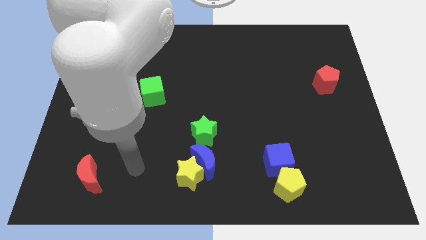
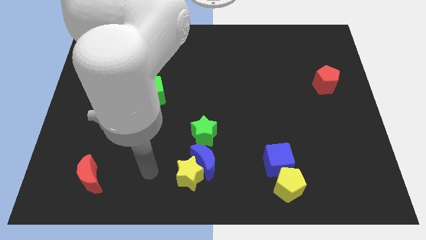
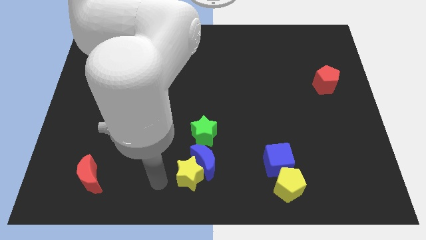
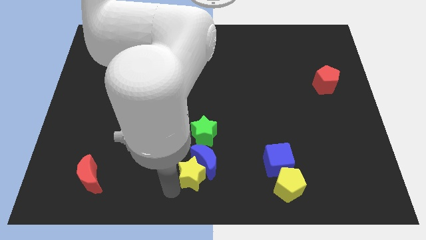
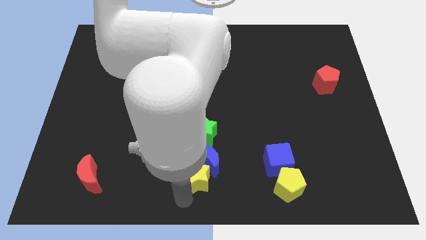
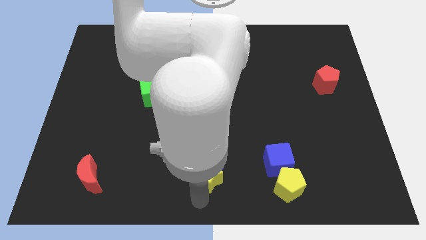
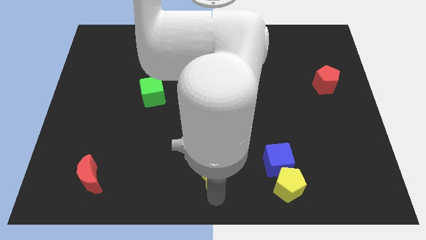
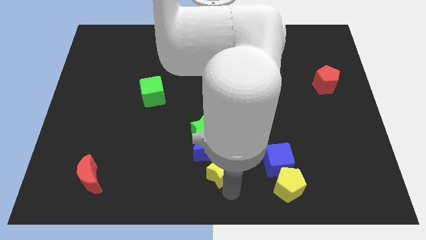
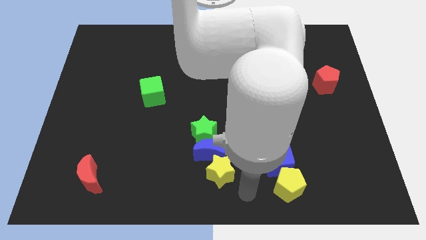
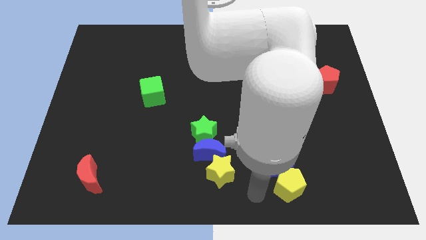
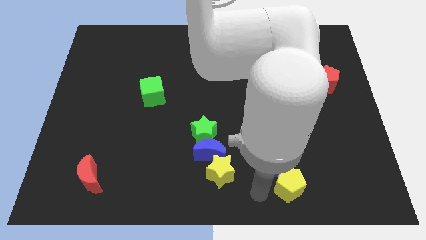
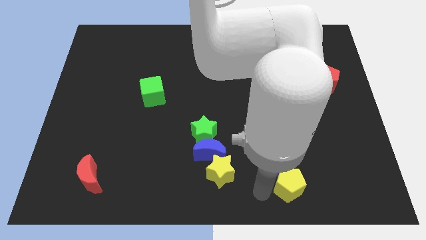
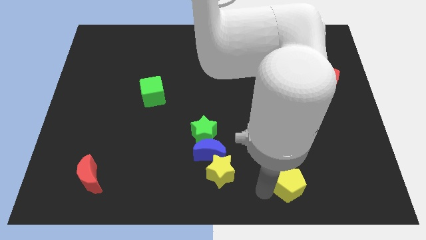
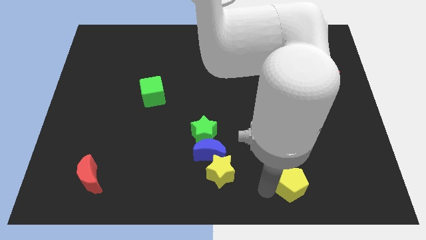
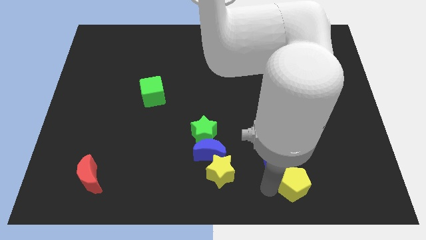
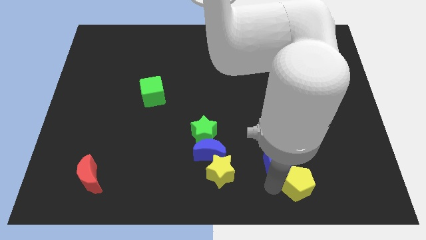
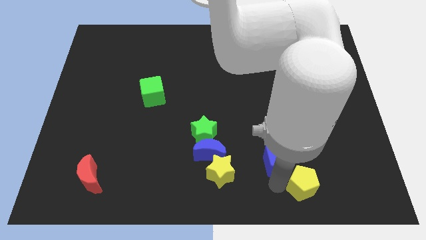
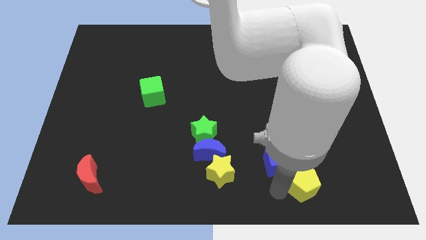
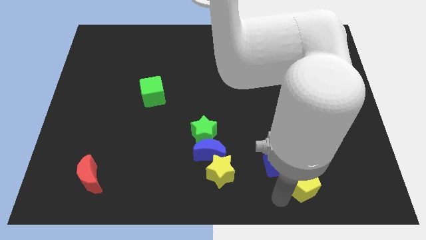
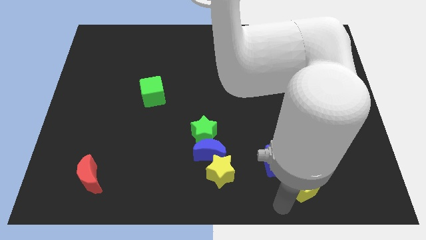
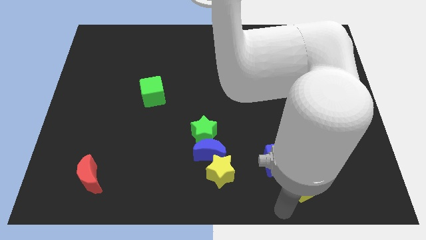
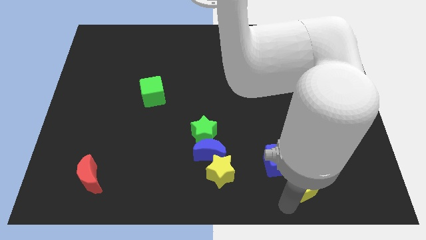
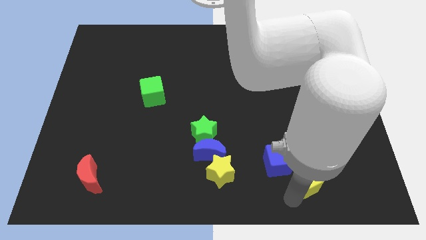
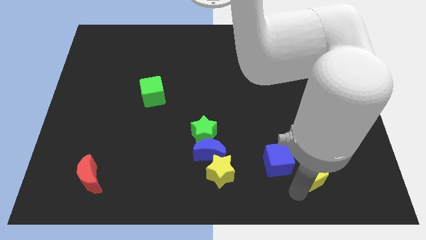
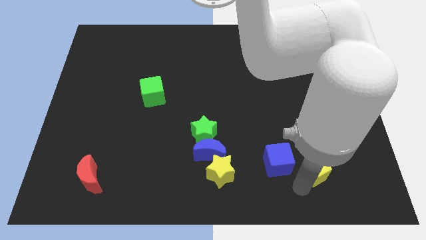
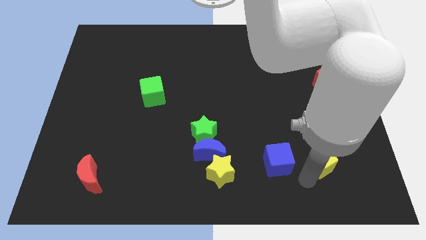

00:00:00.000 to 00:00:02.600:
slightly slide the yellow pentagon diagonally upwards and to the right

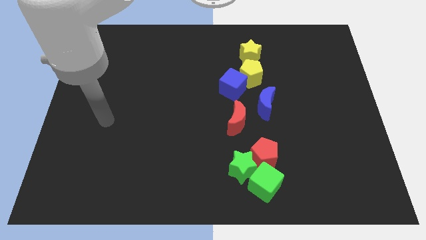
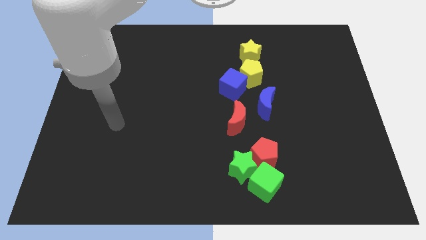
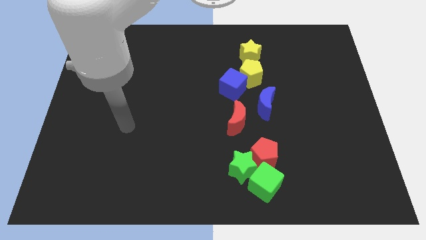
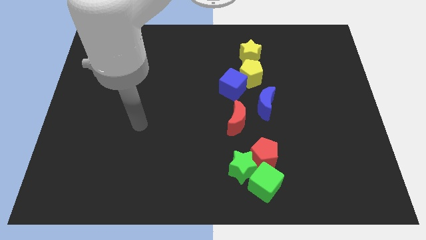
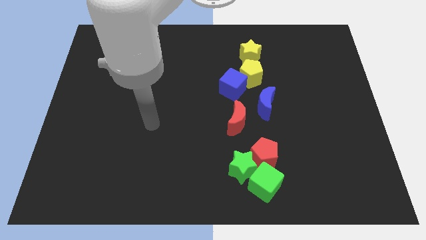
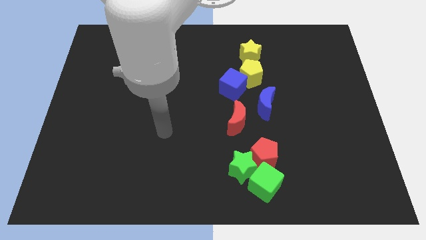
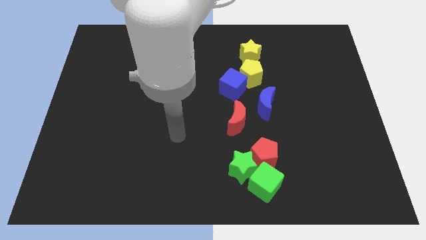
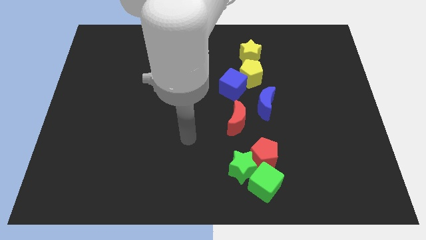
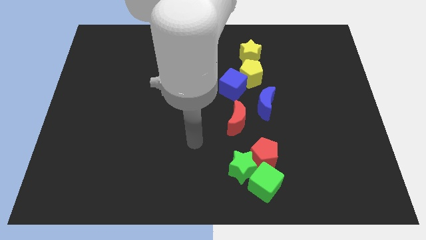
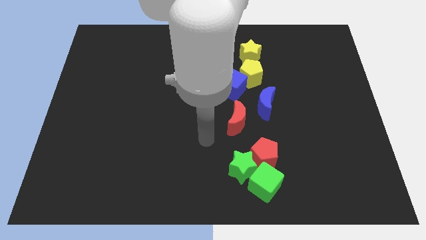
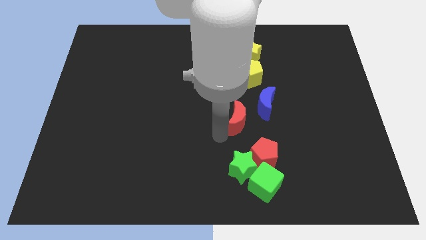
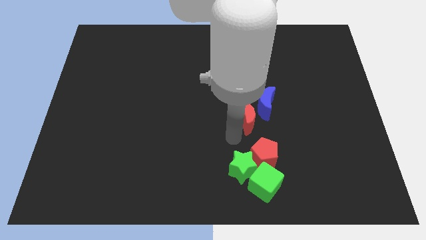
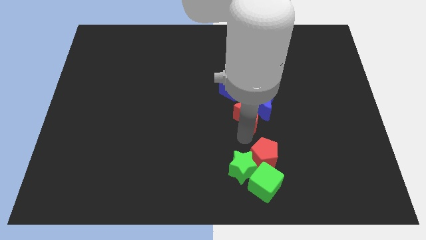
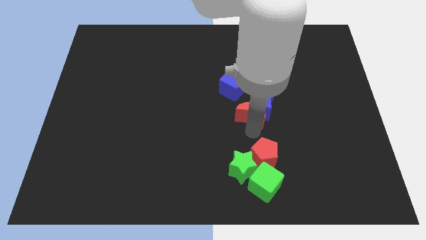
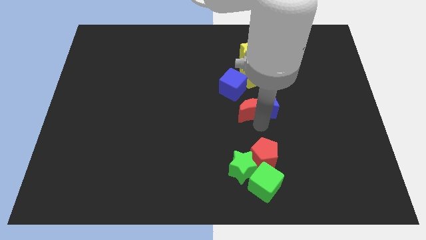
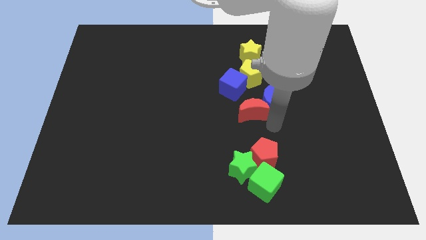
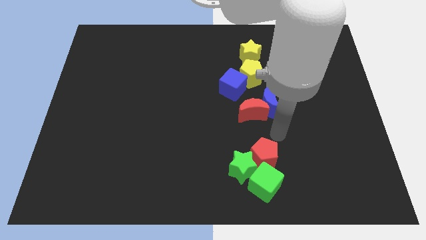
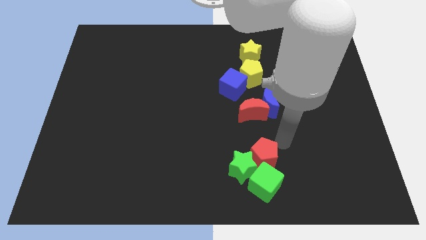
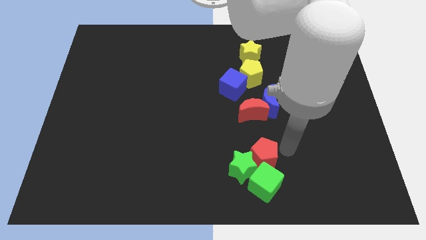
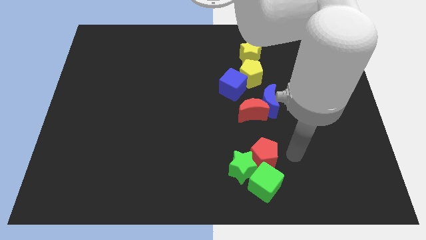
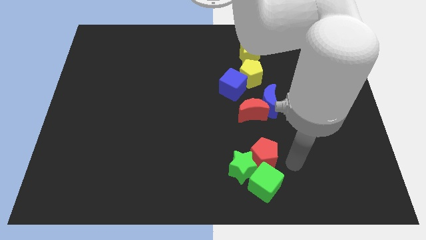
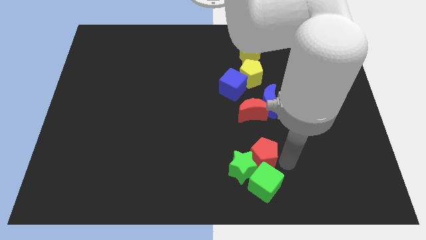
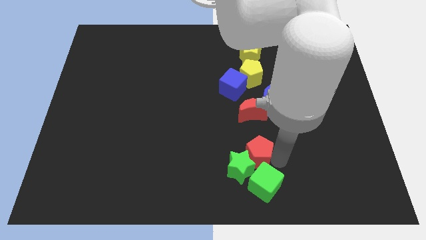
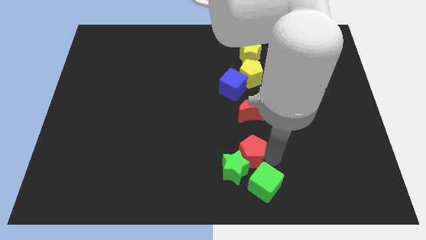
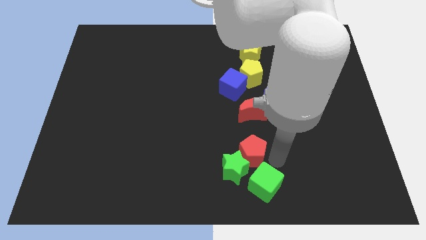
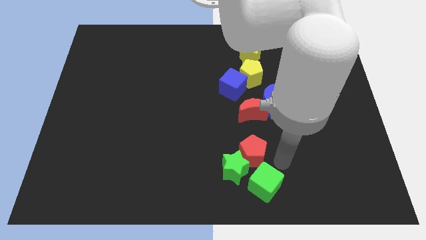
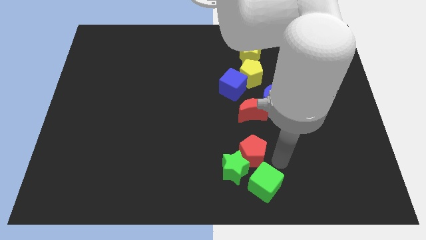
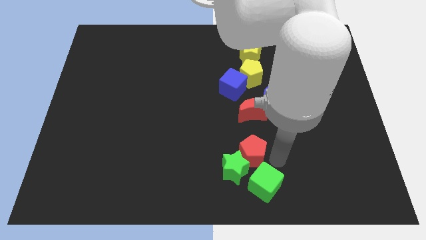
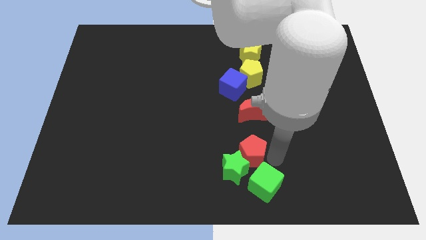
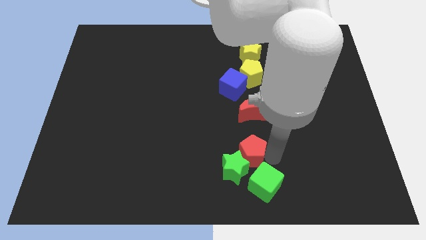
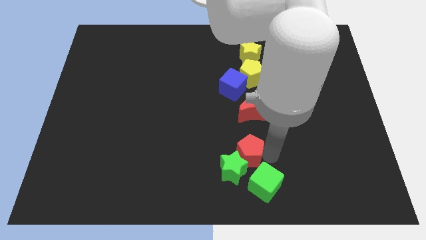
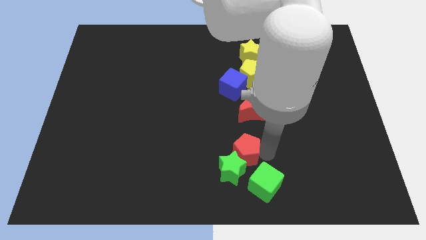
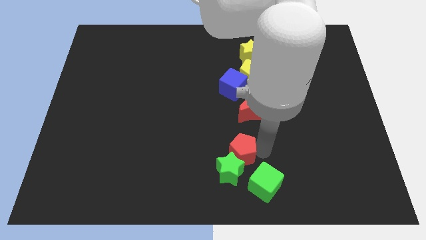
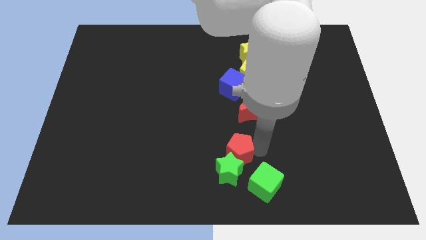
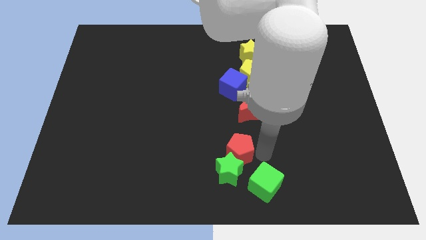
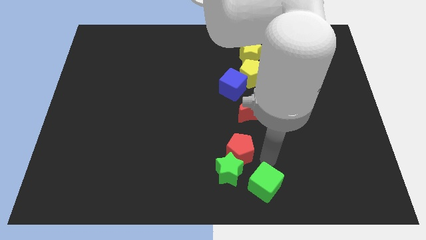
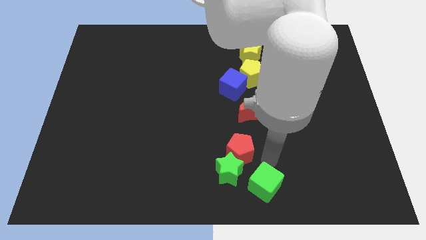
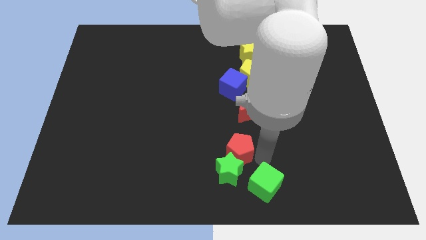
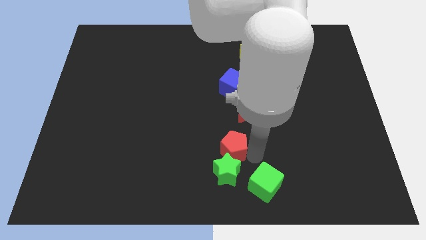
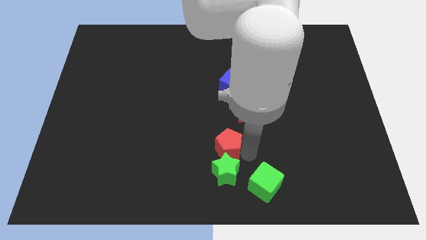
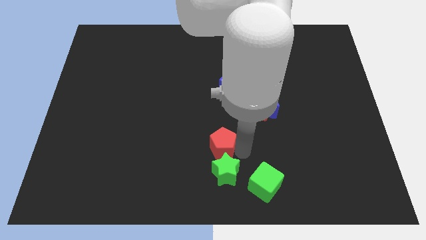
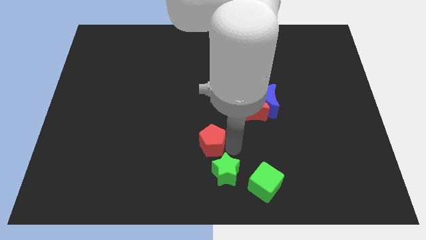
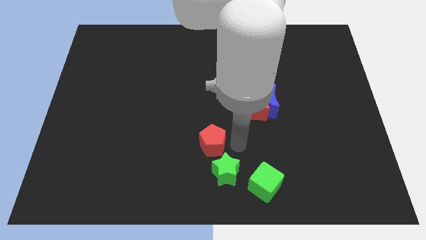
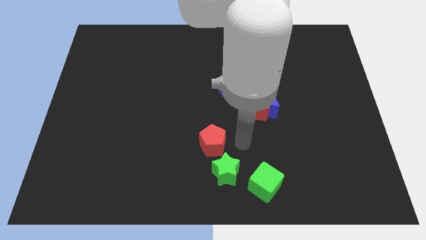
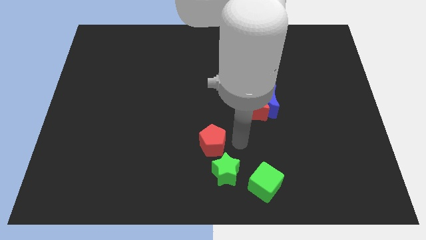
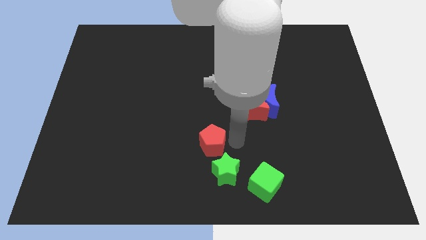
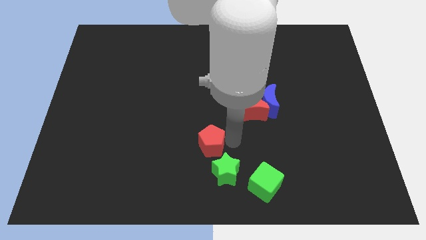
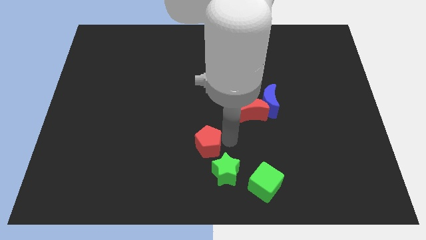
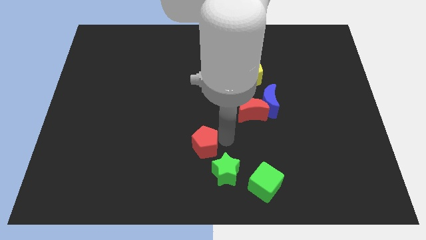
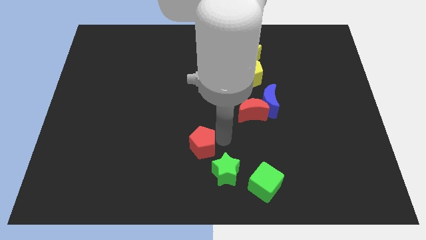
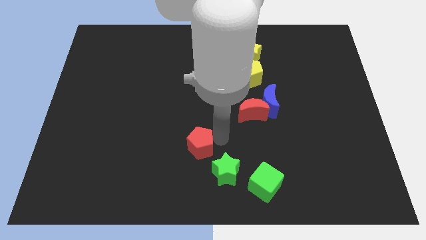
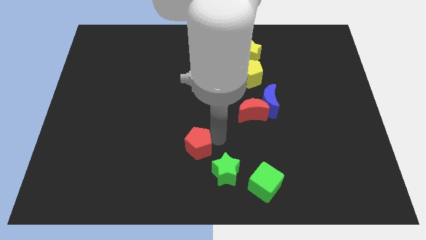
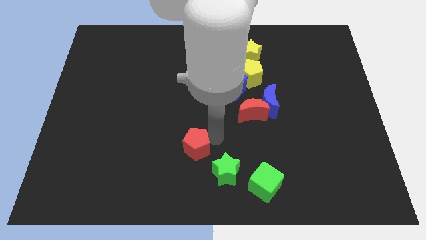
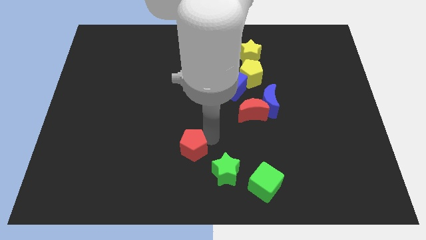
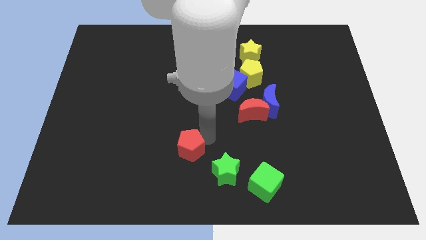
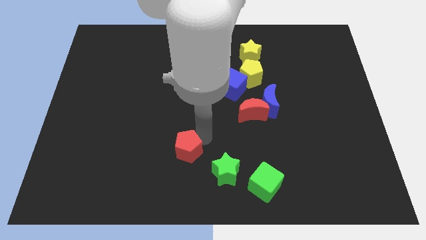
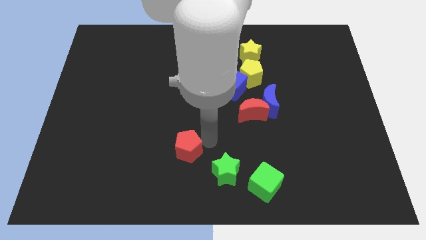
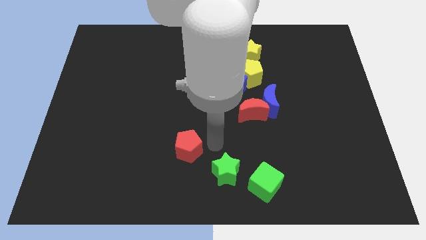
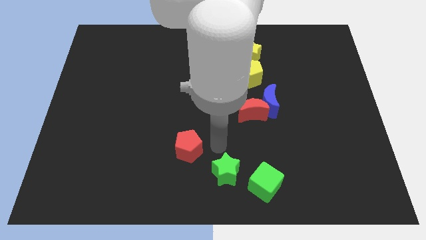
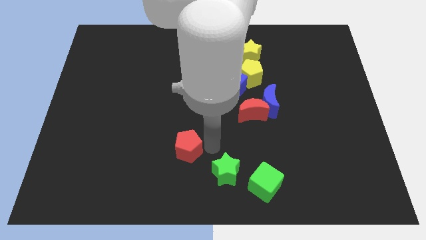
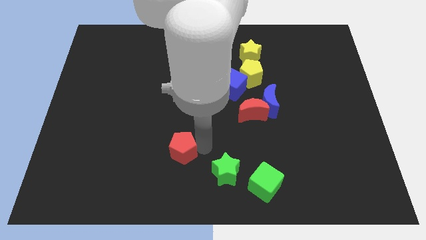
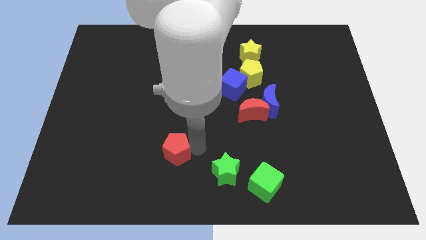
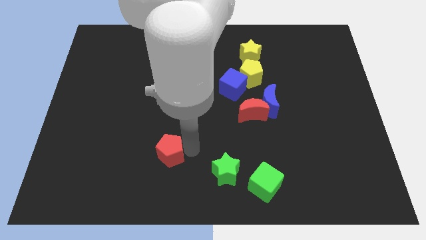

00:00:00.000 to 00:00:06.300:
slide the red pentagon to the left
